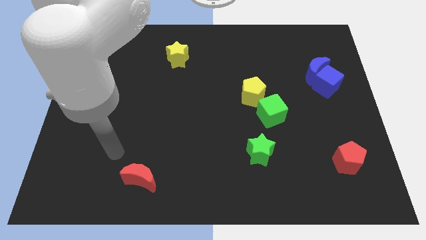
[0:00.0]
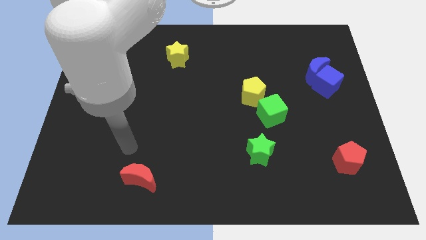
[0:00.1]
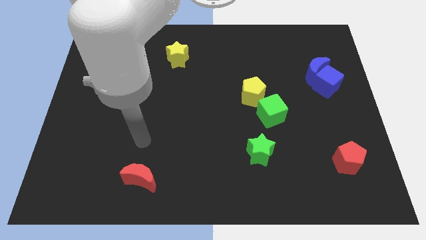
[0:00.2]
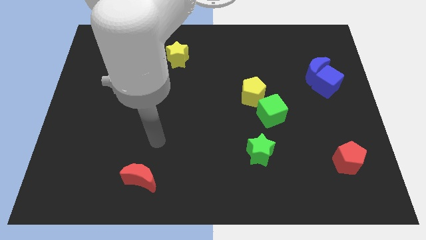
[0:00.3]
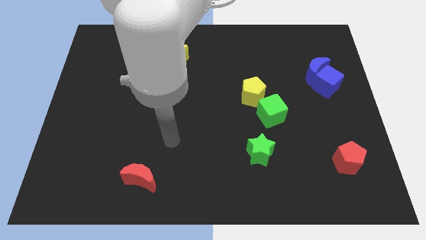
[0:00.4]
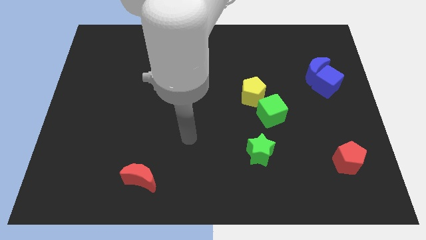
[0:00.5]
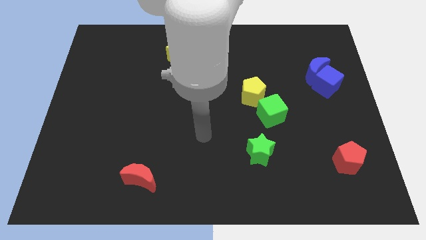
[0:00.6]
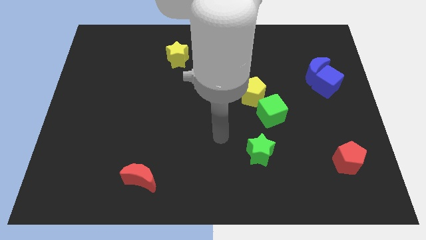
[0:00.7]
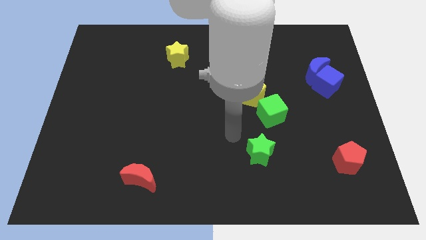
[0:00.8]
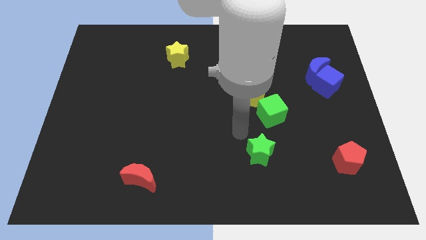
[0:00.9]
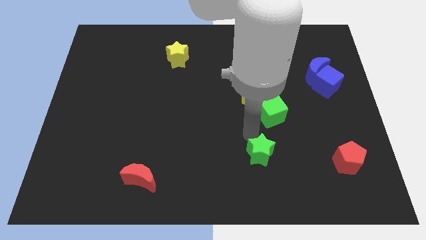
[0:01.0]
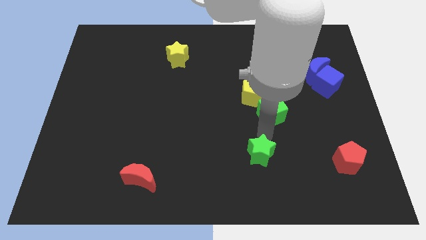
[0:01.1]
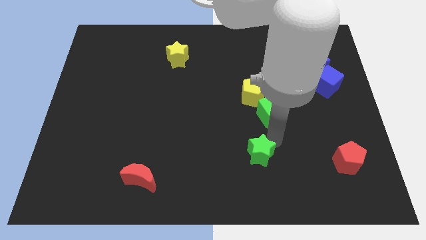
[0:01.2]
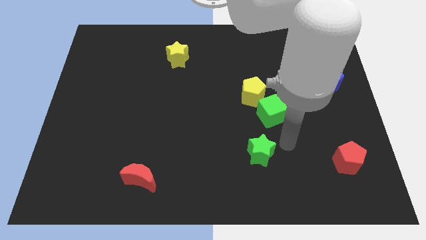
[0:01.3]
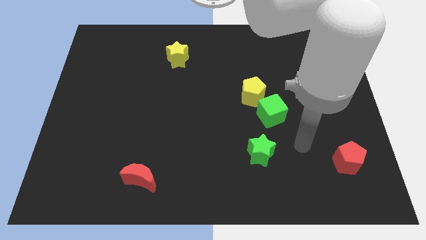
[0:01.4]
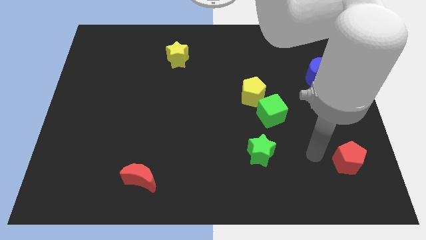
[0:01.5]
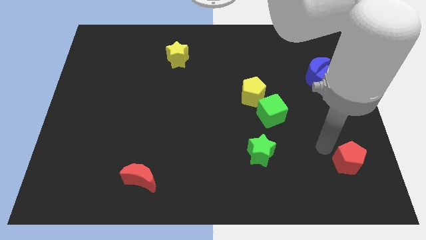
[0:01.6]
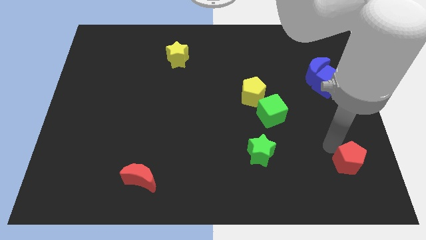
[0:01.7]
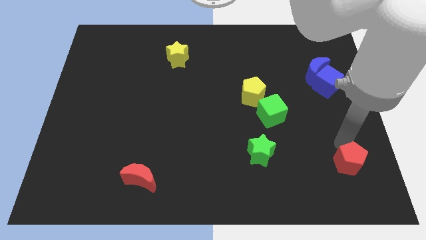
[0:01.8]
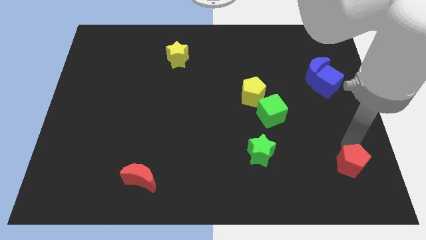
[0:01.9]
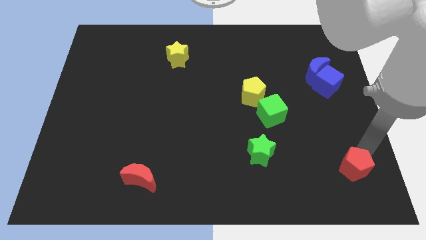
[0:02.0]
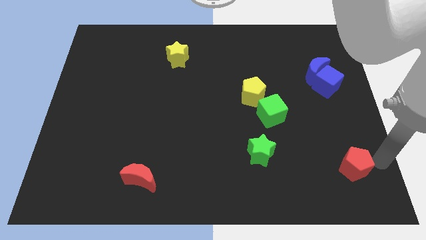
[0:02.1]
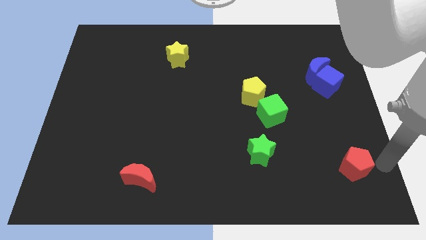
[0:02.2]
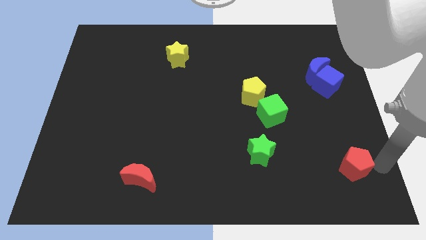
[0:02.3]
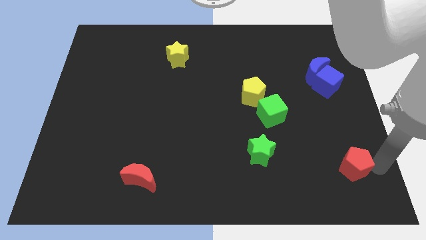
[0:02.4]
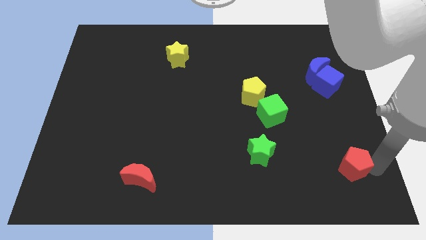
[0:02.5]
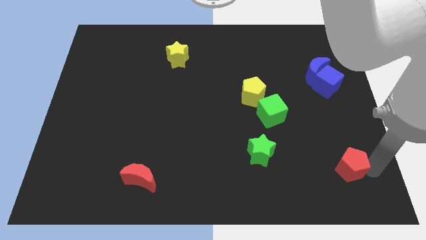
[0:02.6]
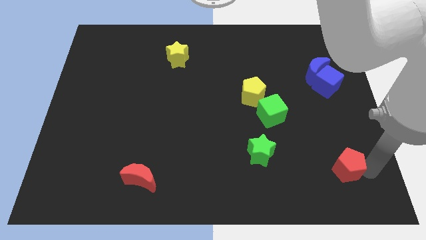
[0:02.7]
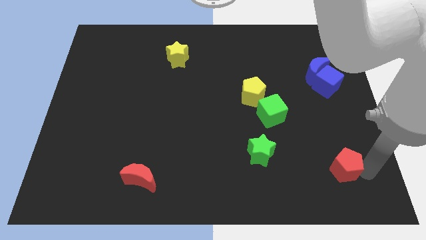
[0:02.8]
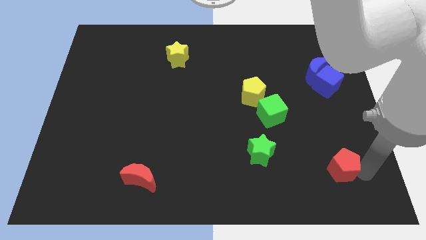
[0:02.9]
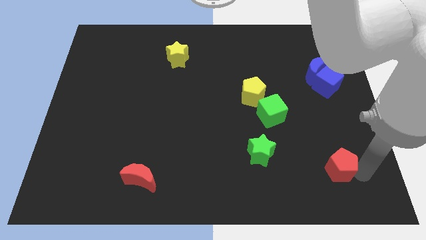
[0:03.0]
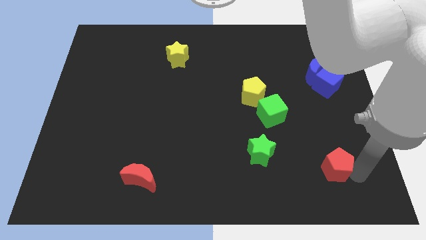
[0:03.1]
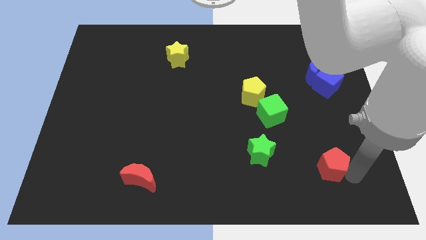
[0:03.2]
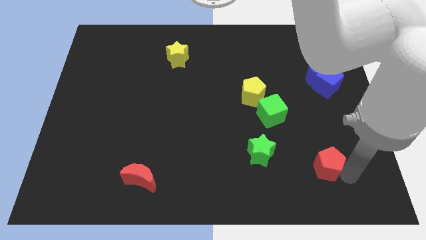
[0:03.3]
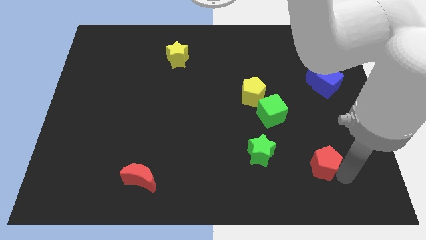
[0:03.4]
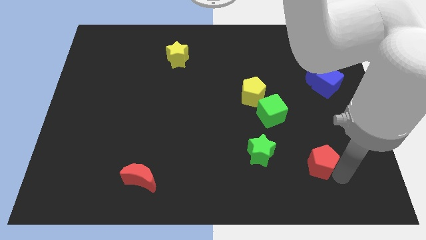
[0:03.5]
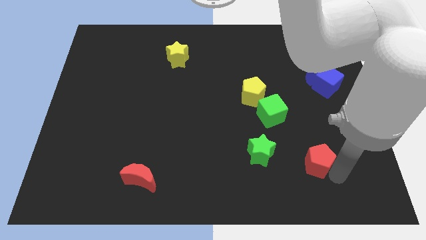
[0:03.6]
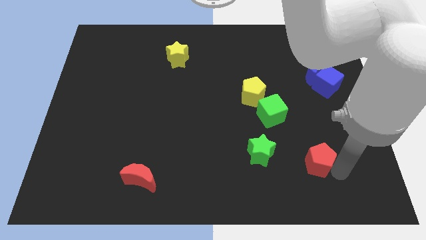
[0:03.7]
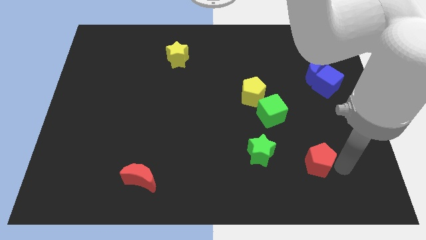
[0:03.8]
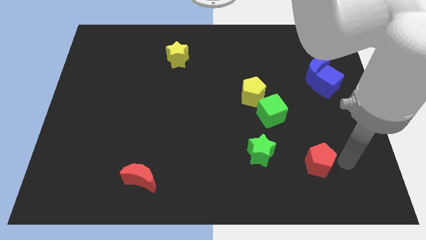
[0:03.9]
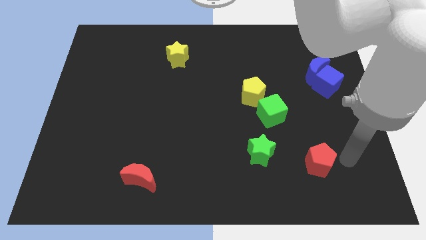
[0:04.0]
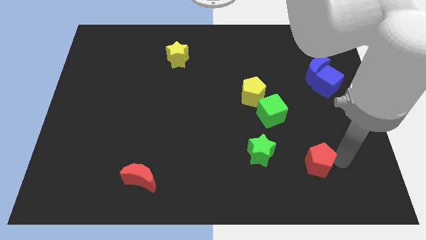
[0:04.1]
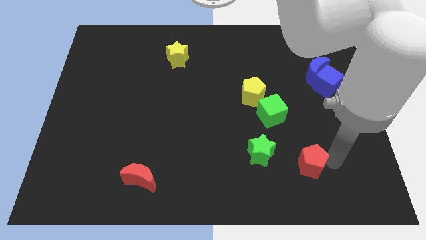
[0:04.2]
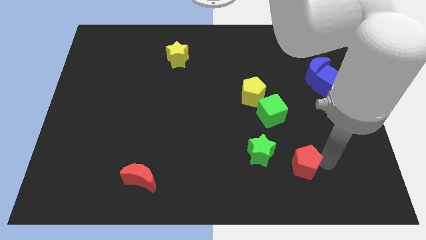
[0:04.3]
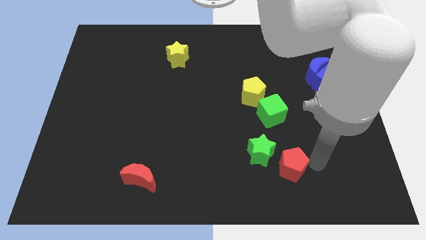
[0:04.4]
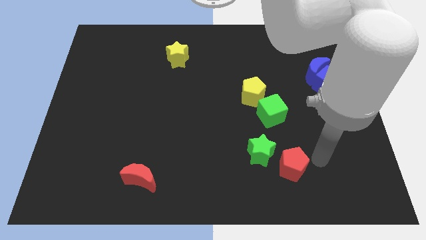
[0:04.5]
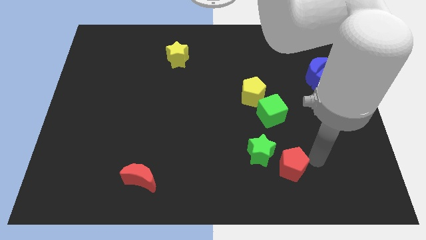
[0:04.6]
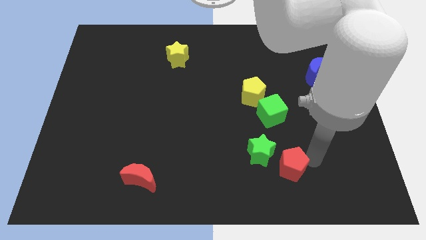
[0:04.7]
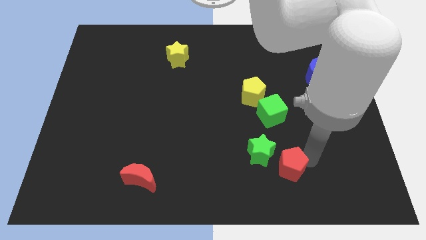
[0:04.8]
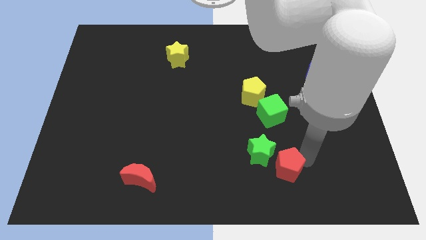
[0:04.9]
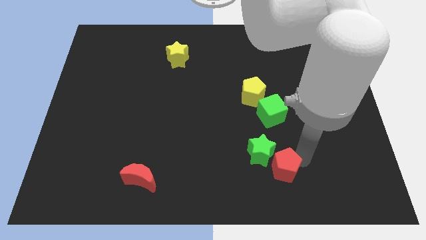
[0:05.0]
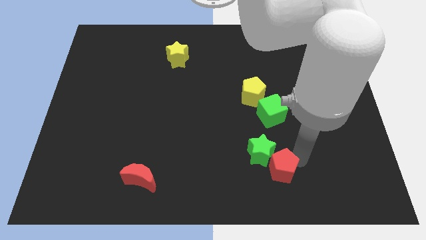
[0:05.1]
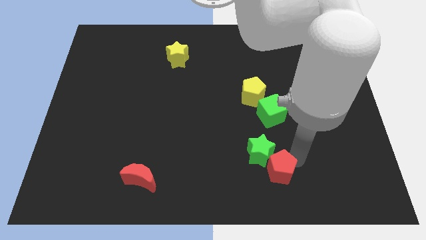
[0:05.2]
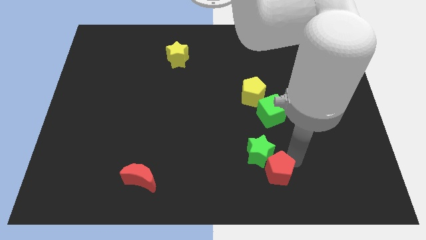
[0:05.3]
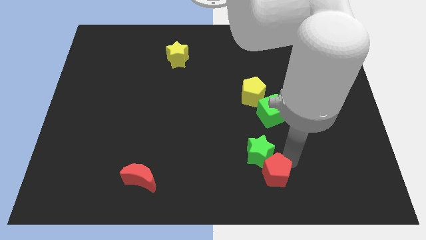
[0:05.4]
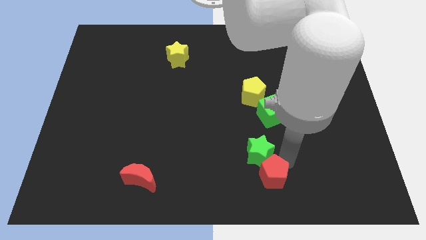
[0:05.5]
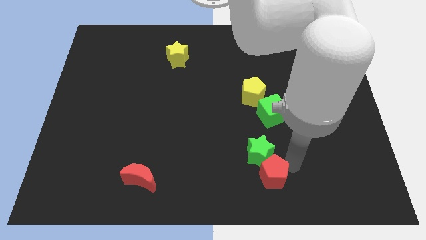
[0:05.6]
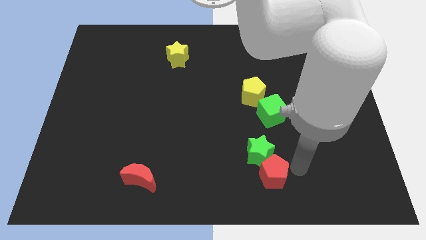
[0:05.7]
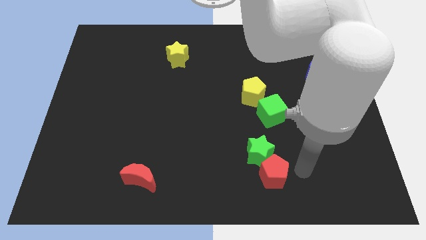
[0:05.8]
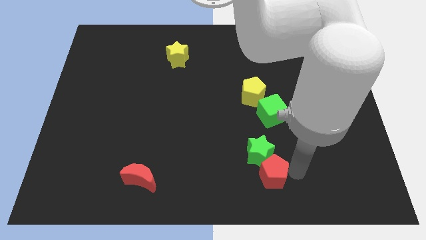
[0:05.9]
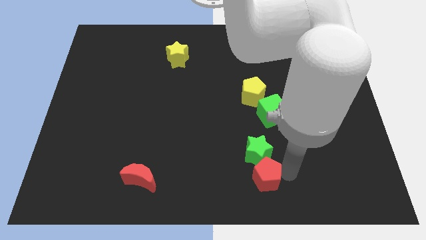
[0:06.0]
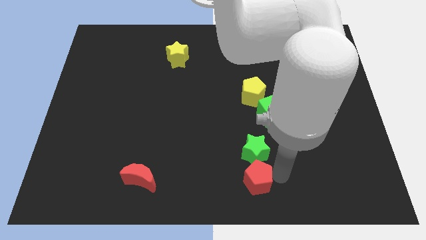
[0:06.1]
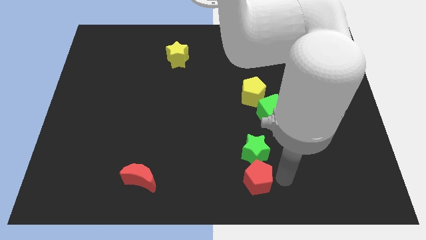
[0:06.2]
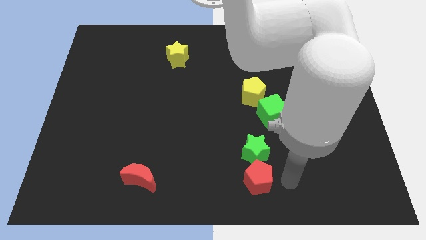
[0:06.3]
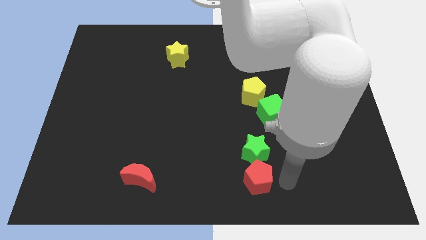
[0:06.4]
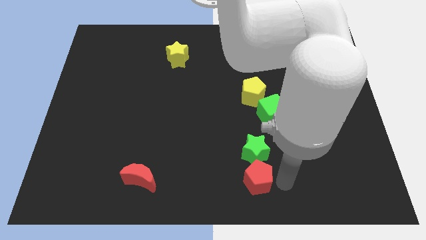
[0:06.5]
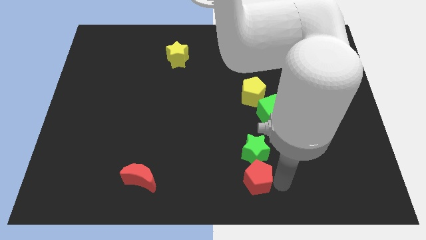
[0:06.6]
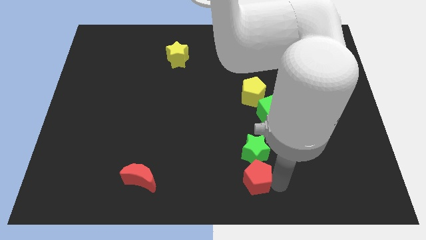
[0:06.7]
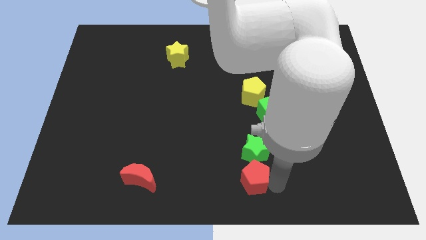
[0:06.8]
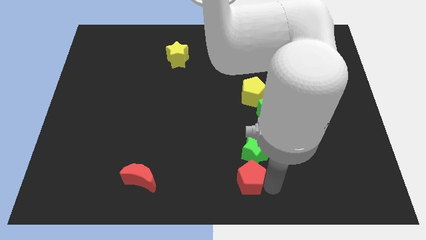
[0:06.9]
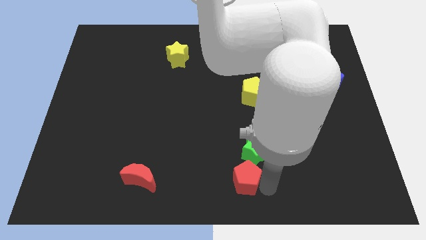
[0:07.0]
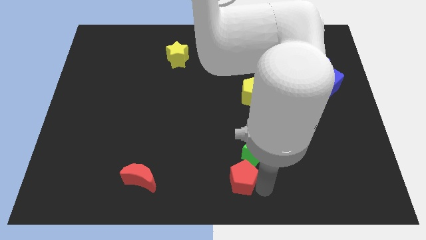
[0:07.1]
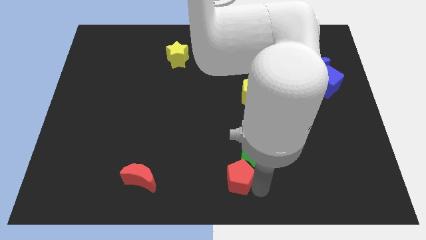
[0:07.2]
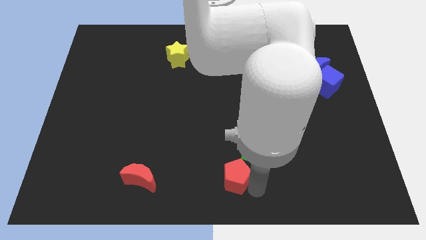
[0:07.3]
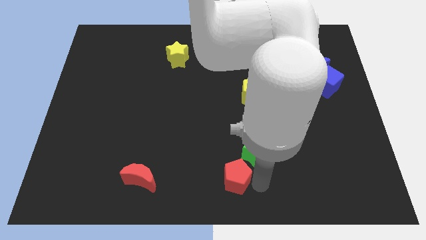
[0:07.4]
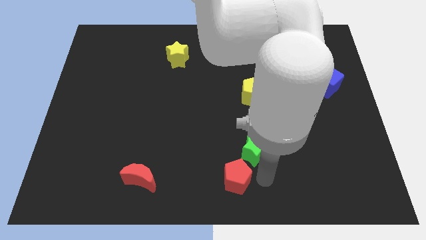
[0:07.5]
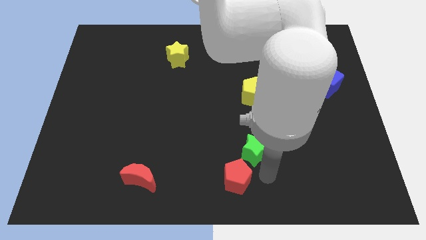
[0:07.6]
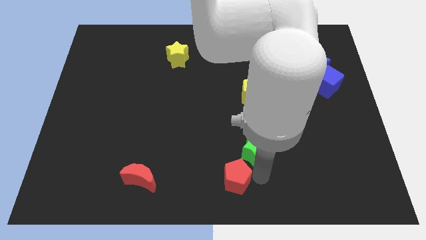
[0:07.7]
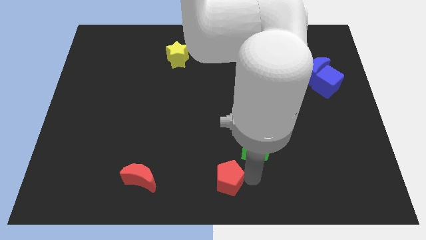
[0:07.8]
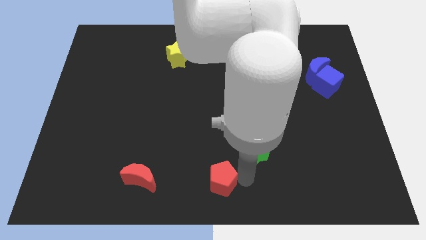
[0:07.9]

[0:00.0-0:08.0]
move the red pentagon to the right of the red moon
